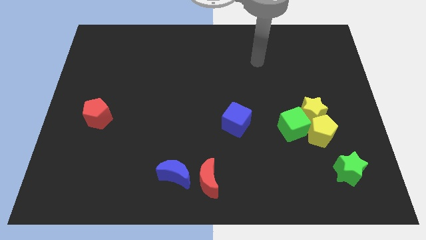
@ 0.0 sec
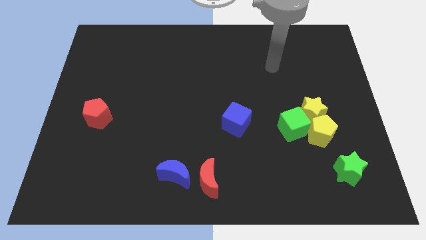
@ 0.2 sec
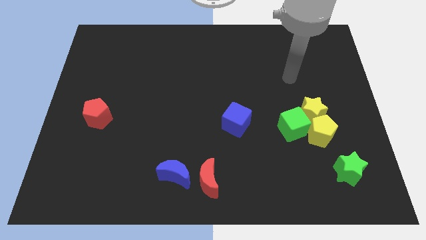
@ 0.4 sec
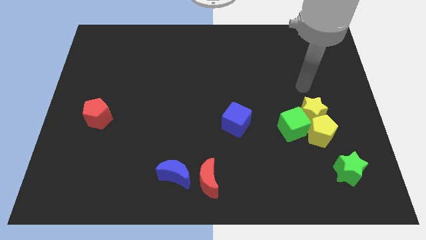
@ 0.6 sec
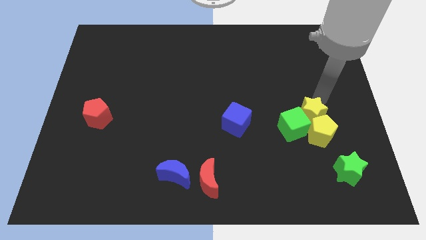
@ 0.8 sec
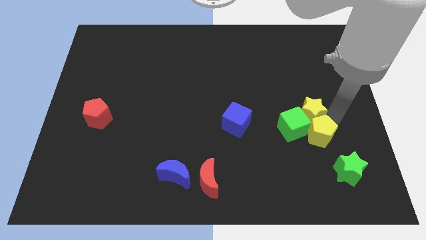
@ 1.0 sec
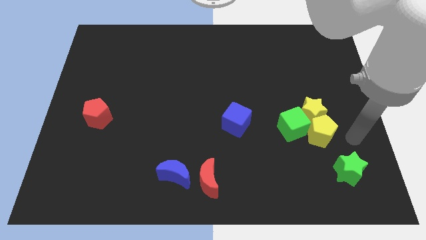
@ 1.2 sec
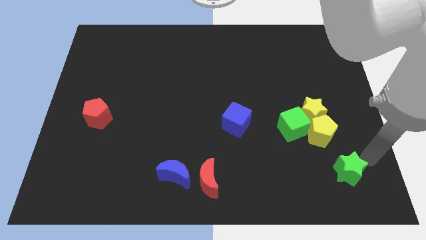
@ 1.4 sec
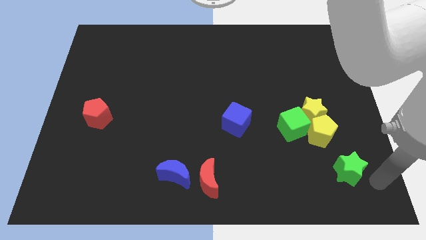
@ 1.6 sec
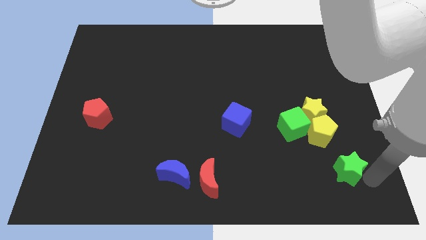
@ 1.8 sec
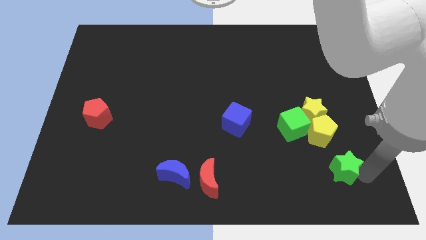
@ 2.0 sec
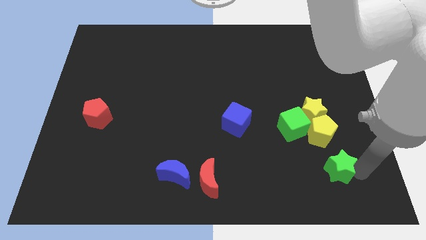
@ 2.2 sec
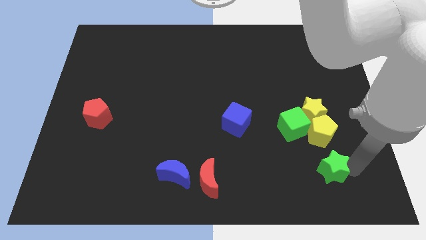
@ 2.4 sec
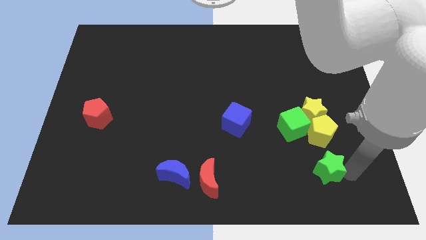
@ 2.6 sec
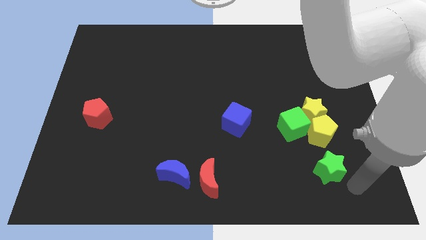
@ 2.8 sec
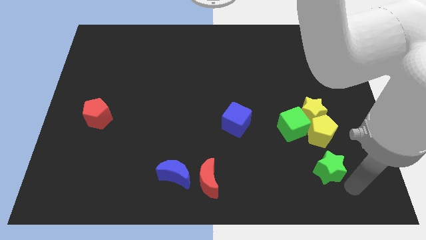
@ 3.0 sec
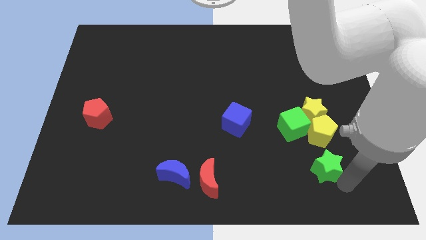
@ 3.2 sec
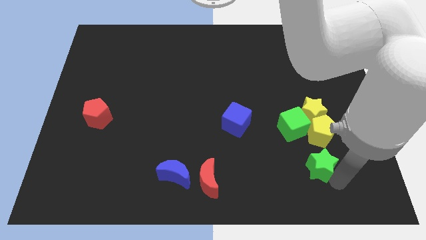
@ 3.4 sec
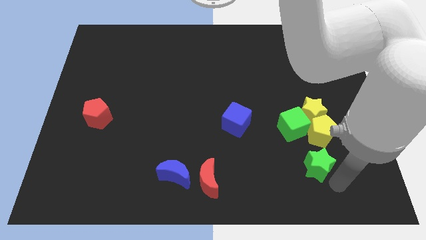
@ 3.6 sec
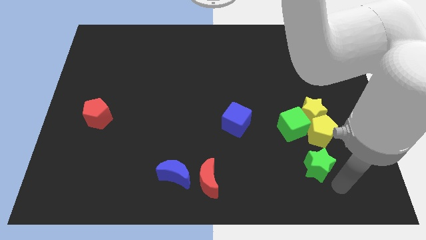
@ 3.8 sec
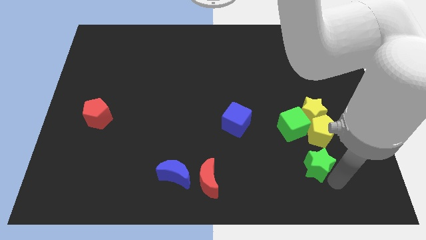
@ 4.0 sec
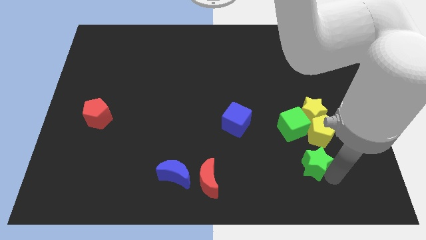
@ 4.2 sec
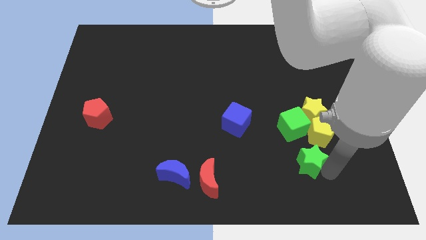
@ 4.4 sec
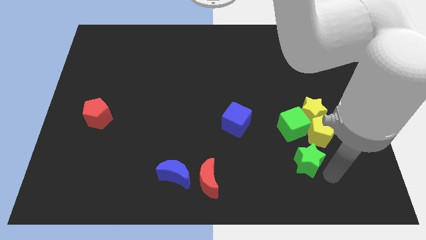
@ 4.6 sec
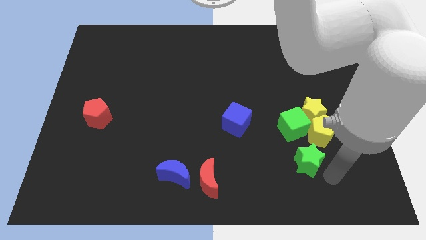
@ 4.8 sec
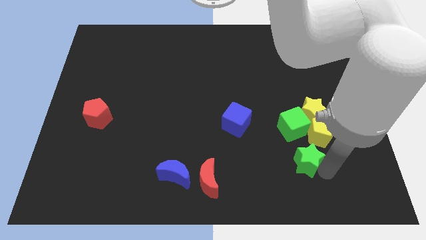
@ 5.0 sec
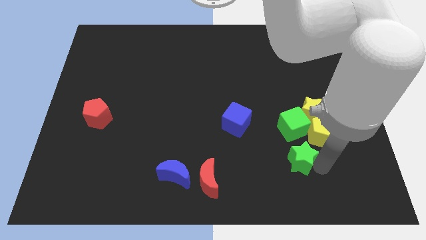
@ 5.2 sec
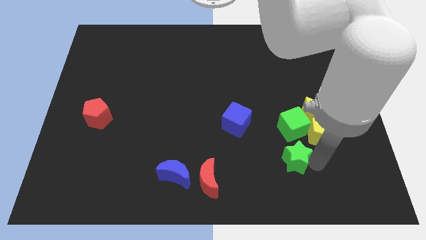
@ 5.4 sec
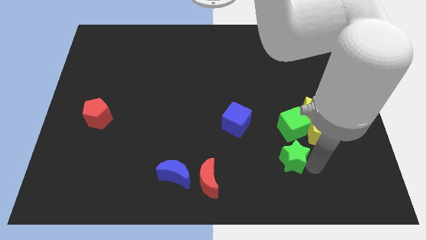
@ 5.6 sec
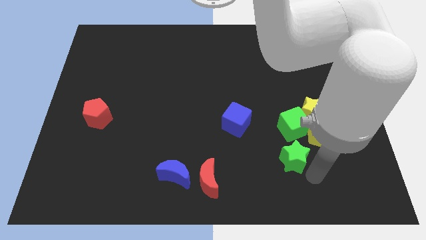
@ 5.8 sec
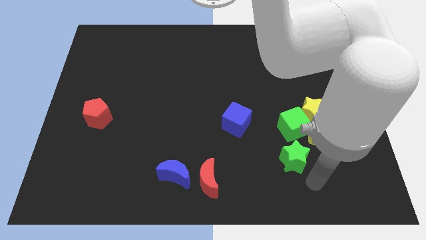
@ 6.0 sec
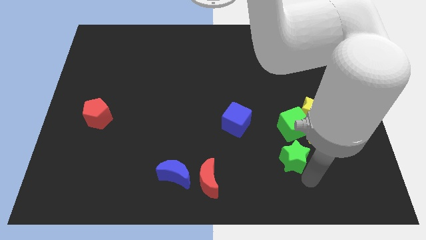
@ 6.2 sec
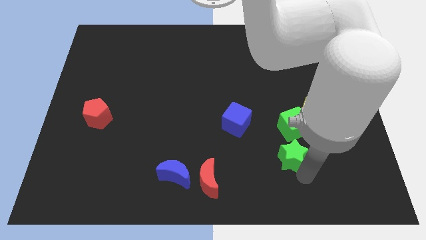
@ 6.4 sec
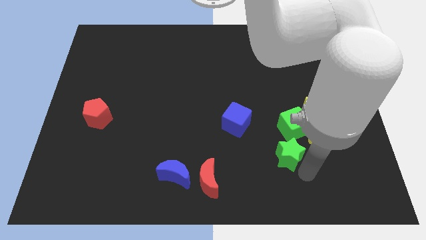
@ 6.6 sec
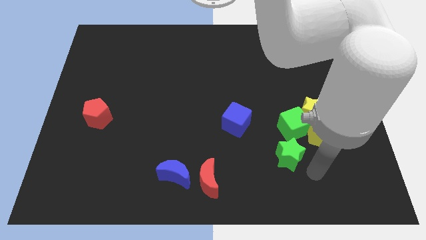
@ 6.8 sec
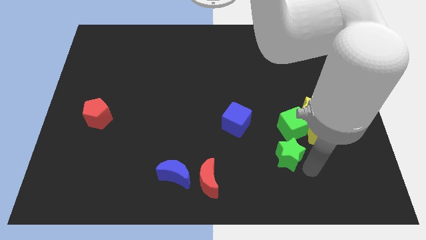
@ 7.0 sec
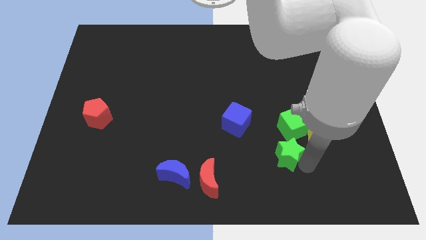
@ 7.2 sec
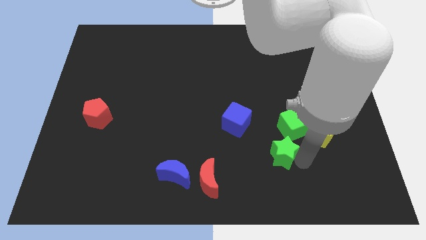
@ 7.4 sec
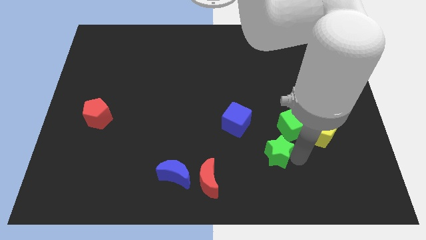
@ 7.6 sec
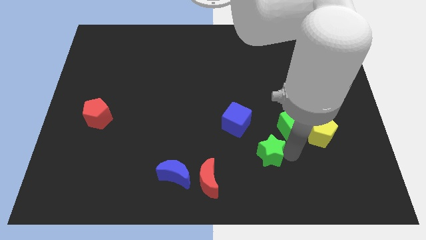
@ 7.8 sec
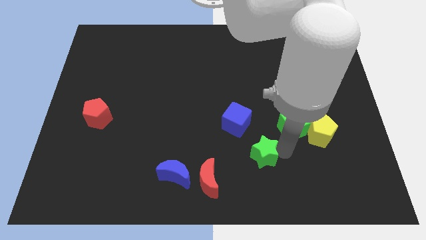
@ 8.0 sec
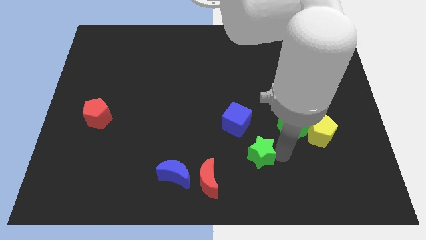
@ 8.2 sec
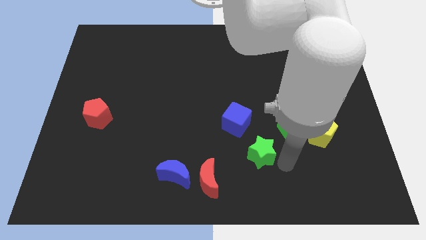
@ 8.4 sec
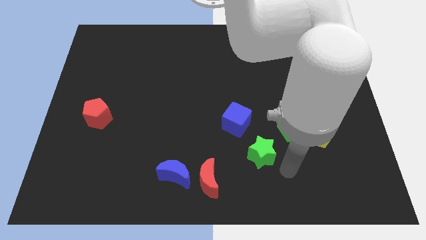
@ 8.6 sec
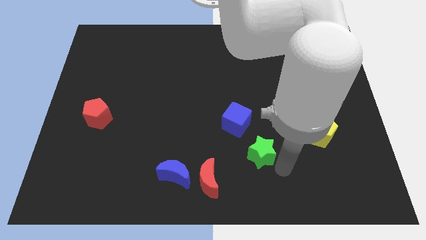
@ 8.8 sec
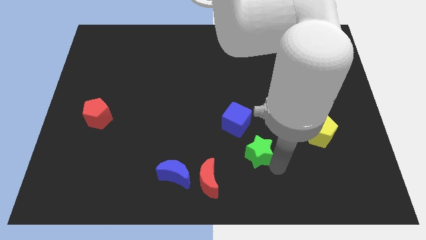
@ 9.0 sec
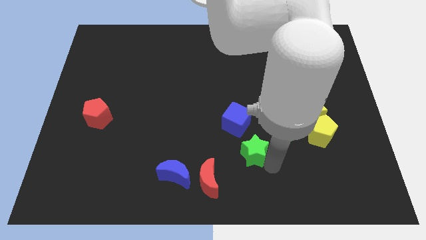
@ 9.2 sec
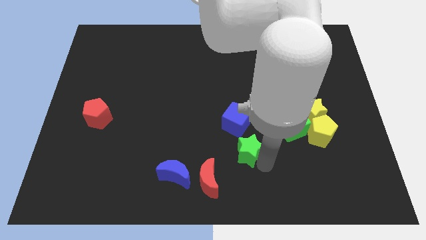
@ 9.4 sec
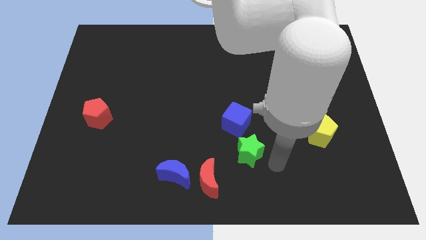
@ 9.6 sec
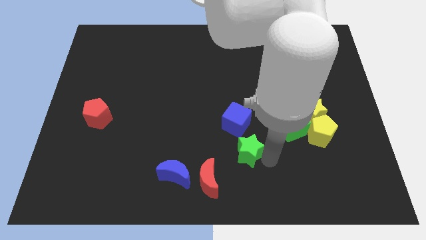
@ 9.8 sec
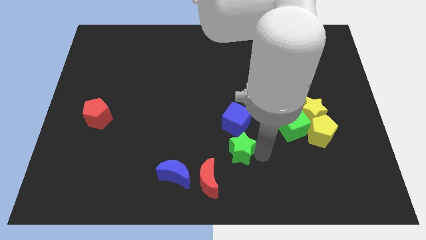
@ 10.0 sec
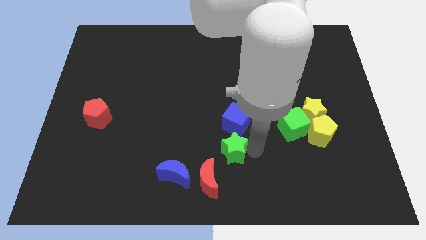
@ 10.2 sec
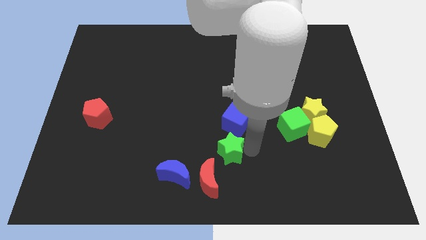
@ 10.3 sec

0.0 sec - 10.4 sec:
move the green star to the top of the red moon

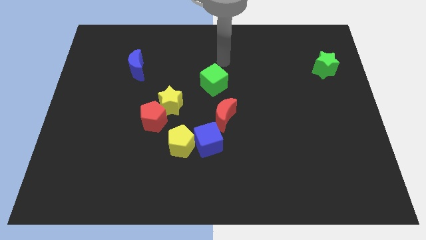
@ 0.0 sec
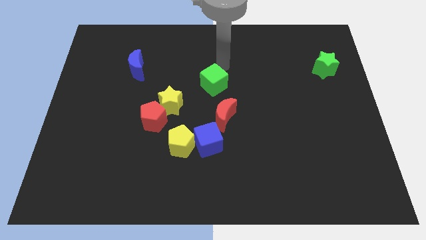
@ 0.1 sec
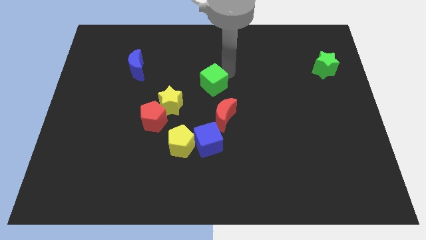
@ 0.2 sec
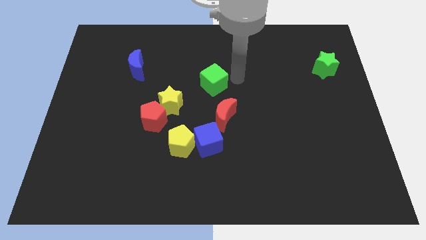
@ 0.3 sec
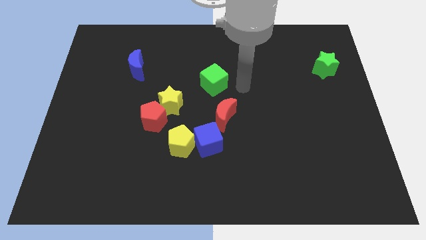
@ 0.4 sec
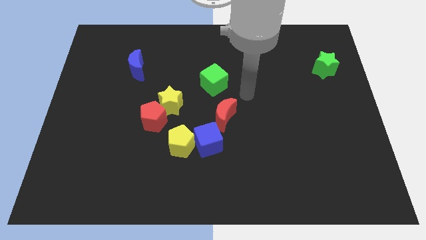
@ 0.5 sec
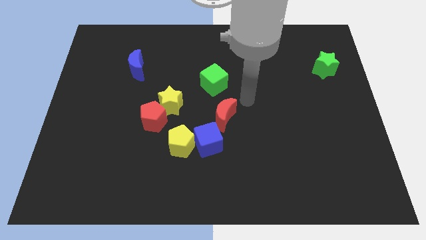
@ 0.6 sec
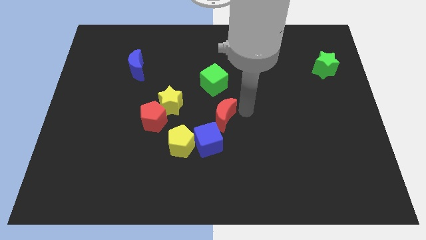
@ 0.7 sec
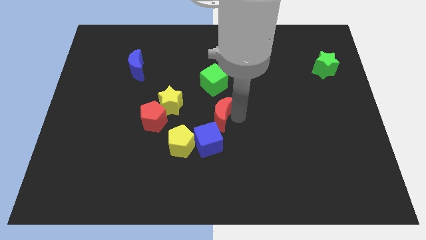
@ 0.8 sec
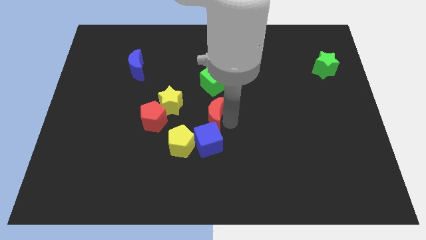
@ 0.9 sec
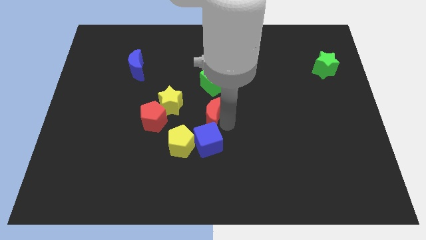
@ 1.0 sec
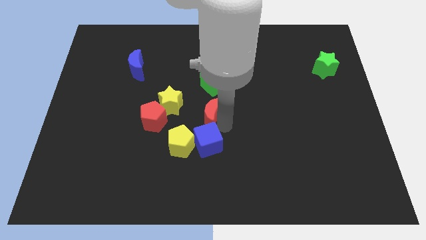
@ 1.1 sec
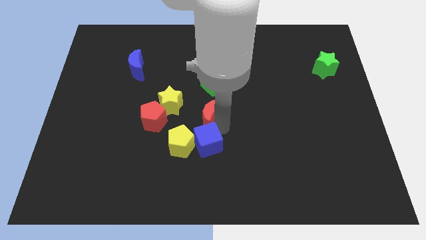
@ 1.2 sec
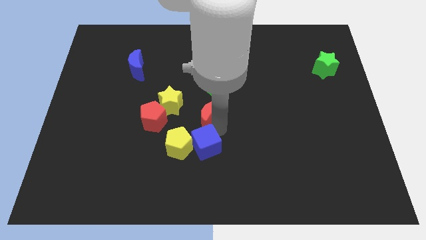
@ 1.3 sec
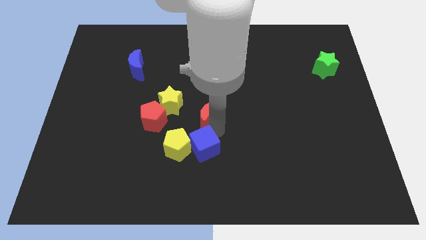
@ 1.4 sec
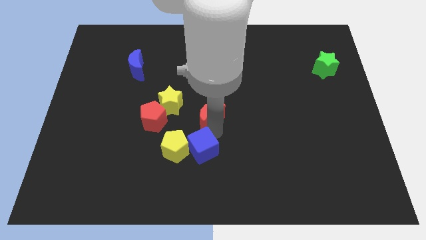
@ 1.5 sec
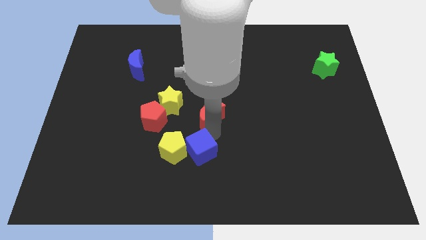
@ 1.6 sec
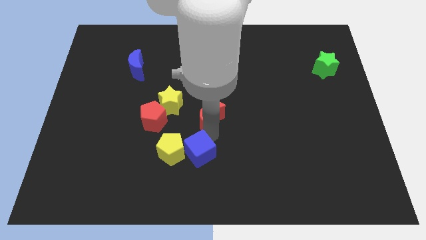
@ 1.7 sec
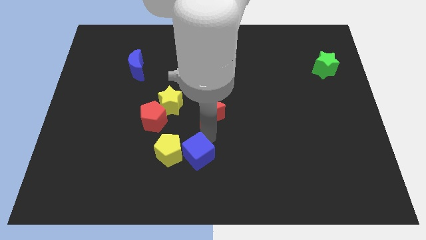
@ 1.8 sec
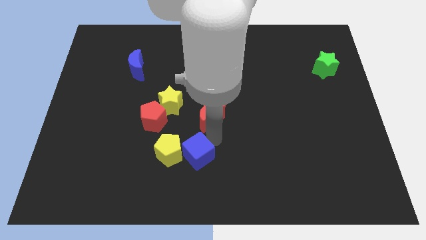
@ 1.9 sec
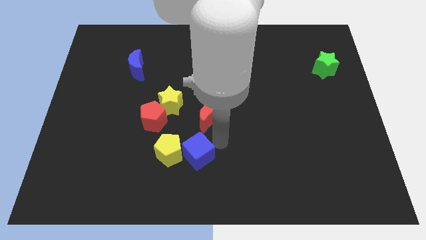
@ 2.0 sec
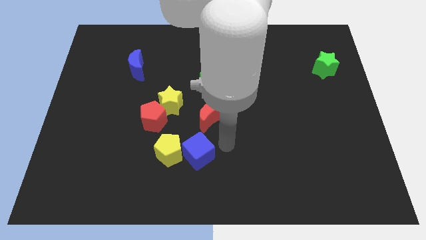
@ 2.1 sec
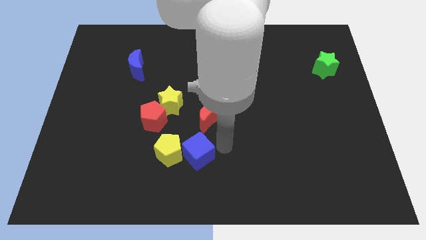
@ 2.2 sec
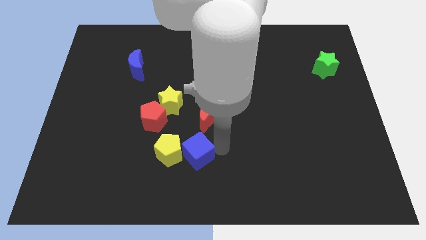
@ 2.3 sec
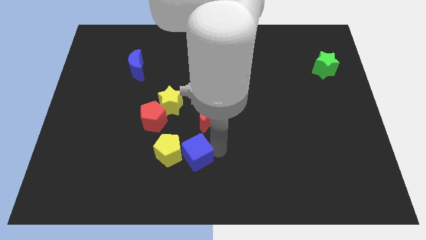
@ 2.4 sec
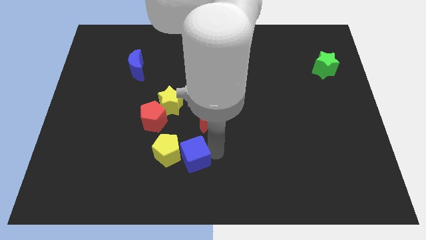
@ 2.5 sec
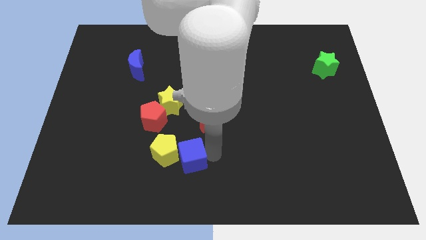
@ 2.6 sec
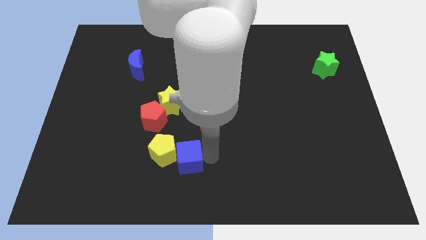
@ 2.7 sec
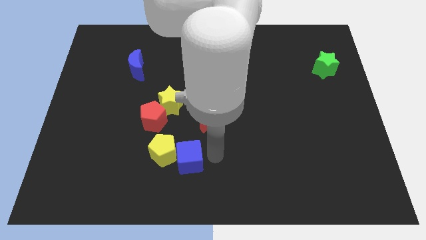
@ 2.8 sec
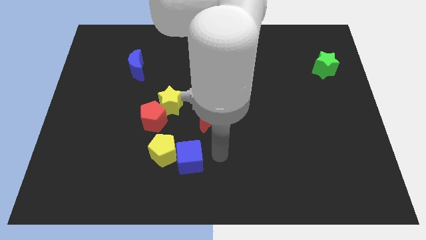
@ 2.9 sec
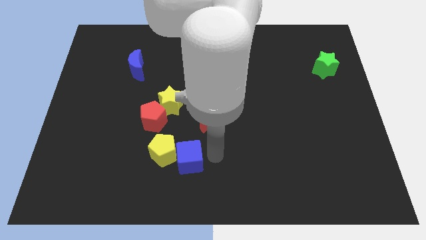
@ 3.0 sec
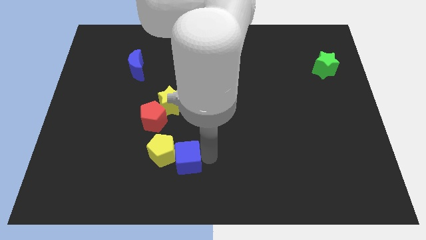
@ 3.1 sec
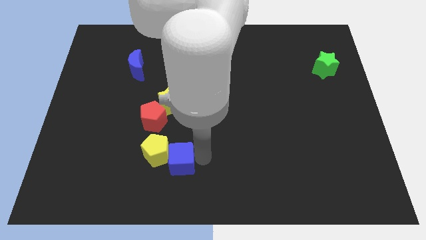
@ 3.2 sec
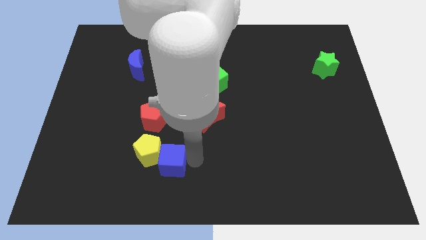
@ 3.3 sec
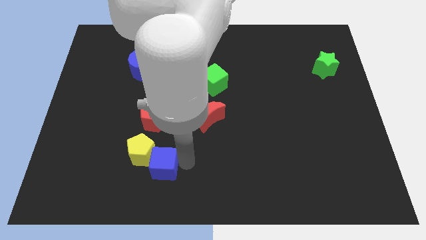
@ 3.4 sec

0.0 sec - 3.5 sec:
slide the blue cube to the bottom side of the red pentagon
